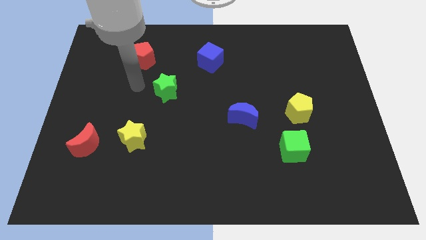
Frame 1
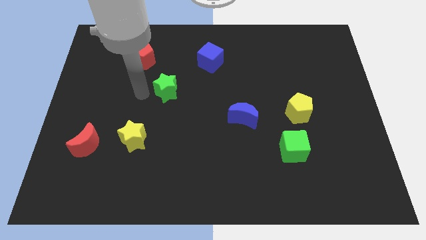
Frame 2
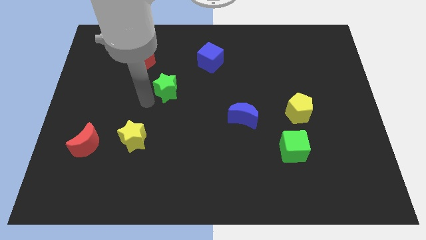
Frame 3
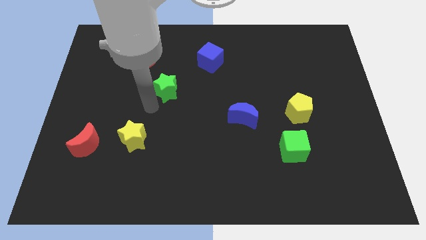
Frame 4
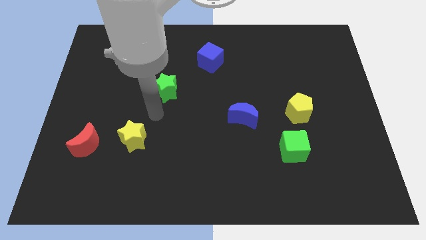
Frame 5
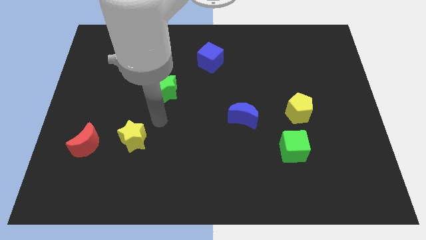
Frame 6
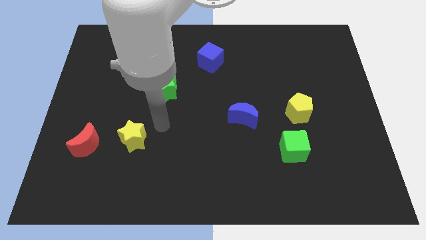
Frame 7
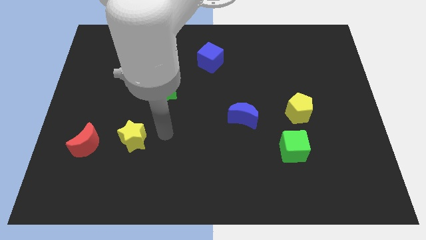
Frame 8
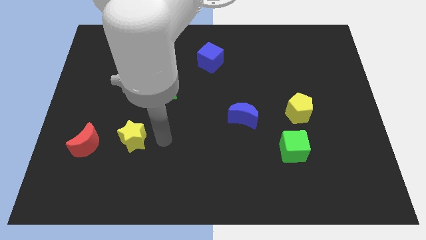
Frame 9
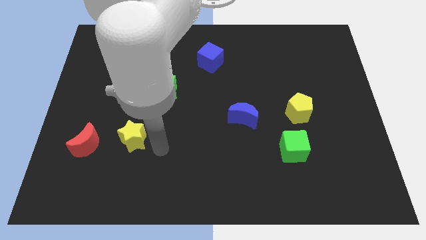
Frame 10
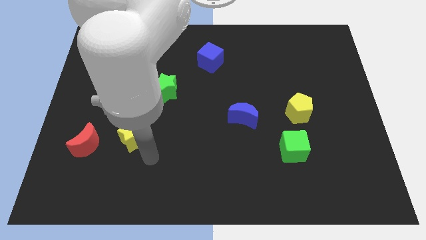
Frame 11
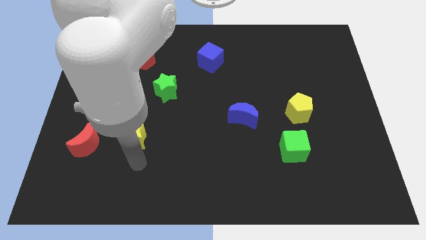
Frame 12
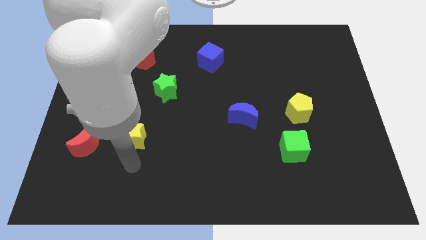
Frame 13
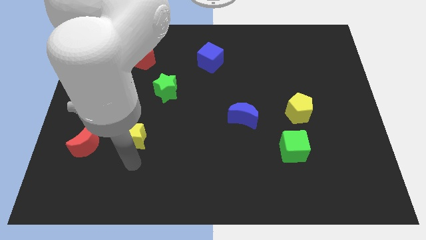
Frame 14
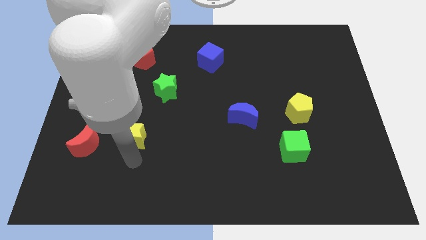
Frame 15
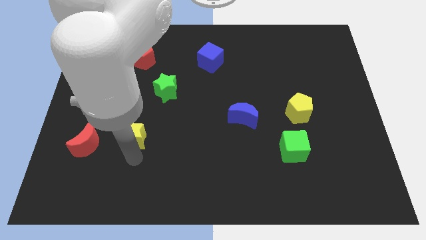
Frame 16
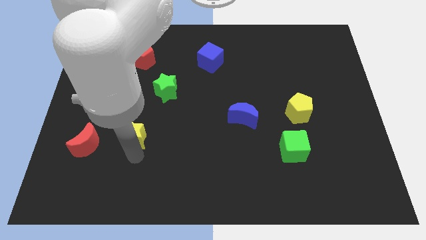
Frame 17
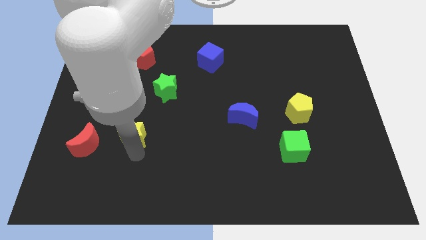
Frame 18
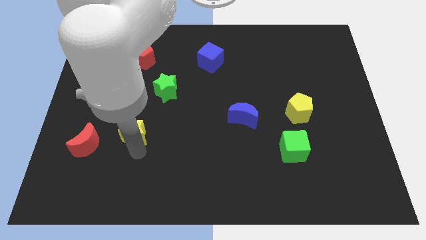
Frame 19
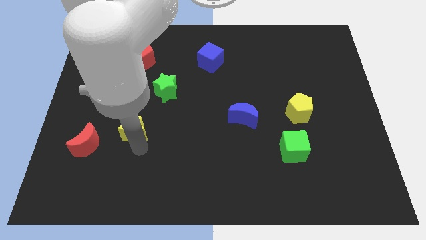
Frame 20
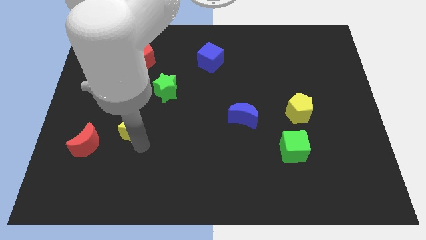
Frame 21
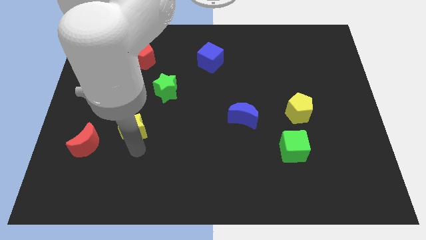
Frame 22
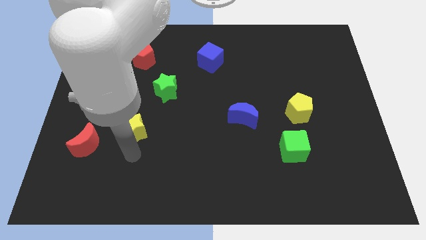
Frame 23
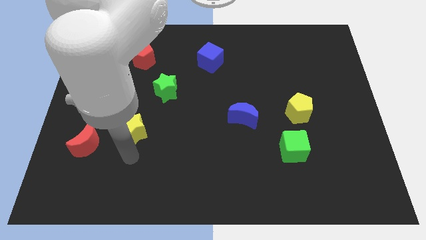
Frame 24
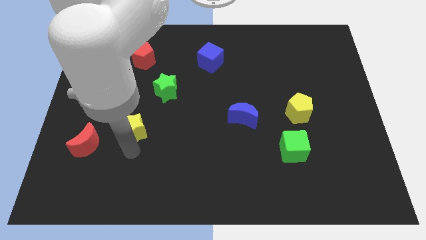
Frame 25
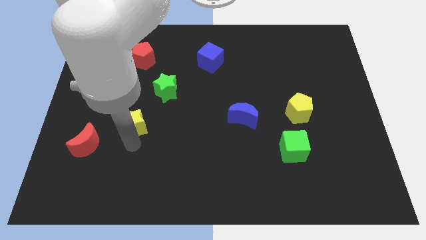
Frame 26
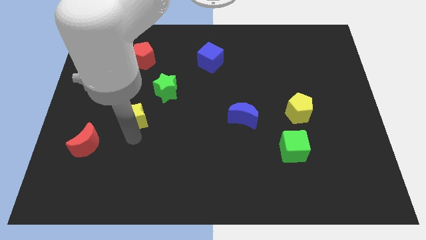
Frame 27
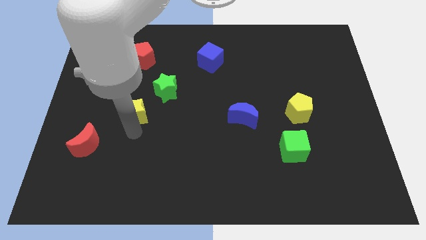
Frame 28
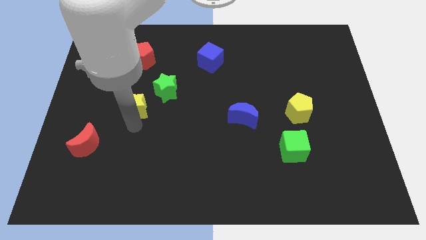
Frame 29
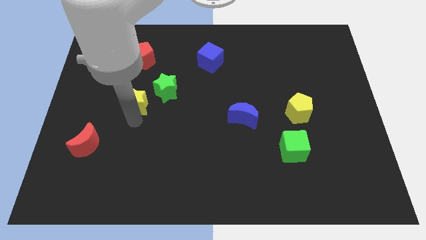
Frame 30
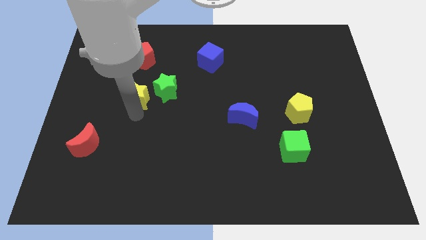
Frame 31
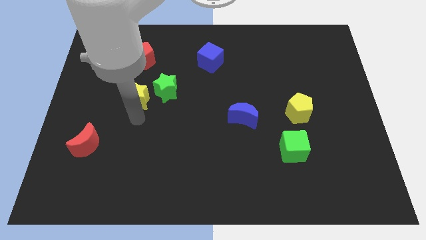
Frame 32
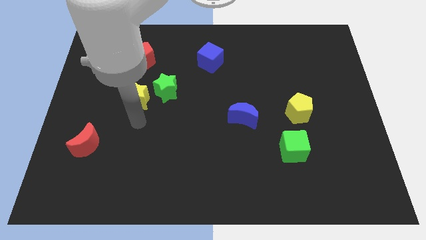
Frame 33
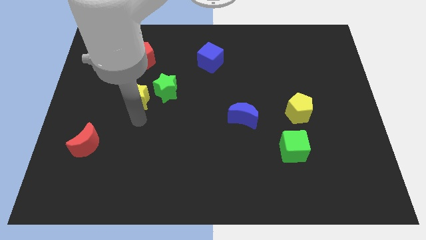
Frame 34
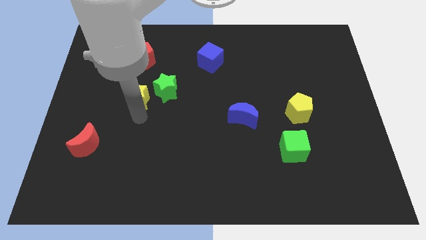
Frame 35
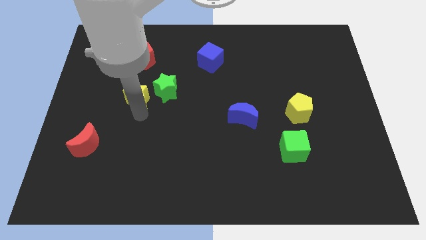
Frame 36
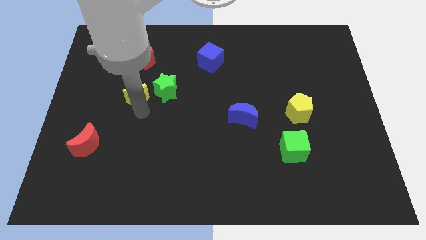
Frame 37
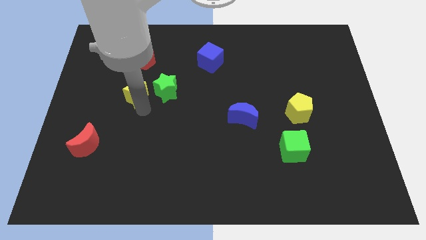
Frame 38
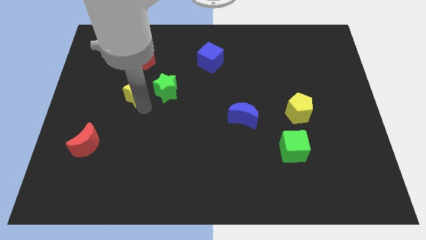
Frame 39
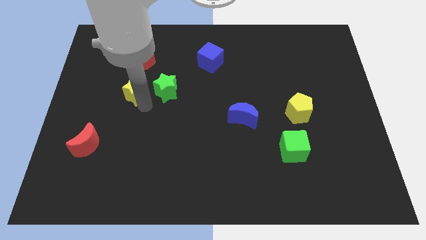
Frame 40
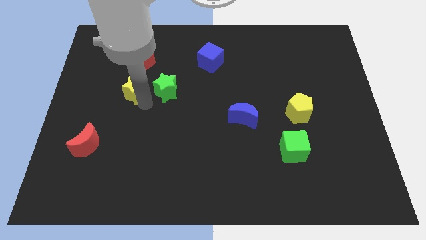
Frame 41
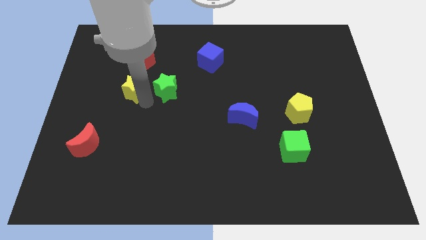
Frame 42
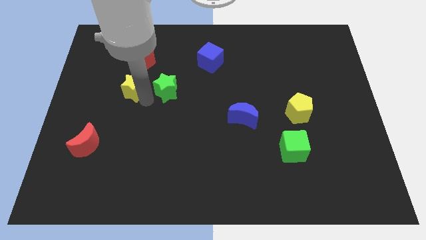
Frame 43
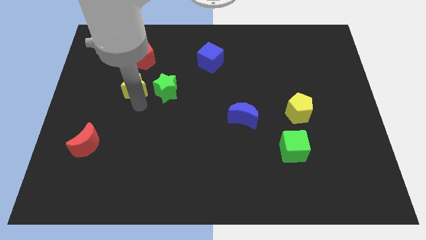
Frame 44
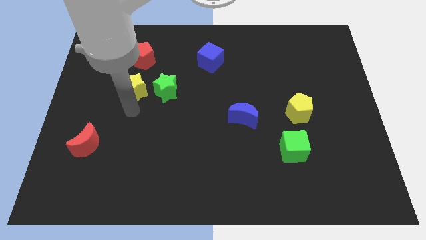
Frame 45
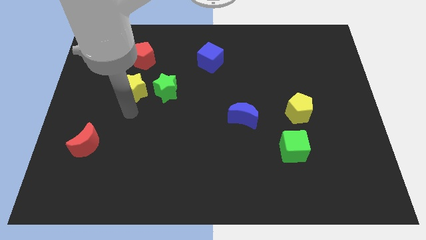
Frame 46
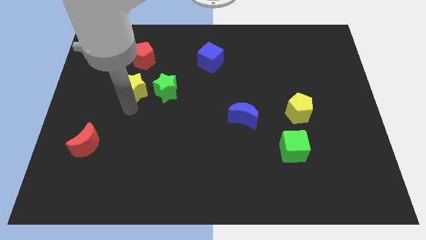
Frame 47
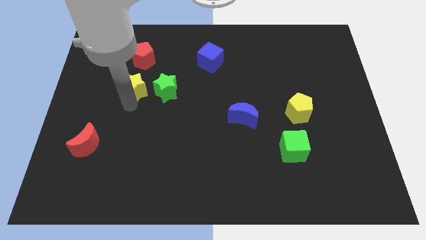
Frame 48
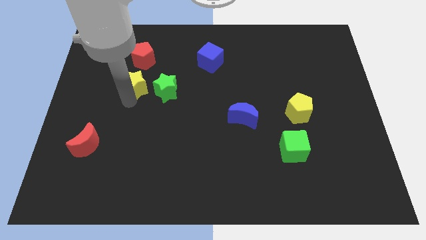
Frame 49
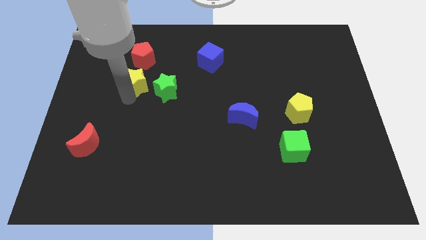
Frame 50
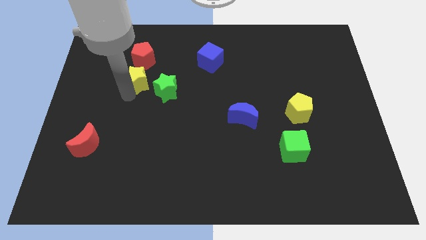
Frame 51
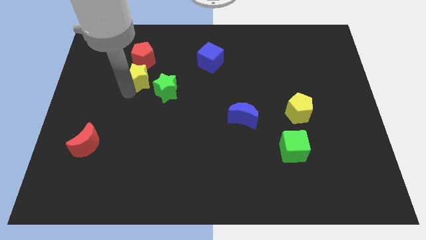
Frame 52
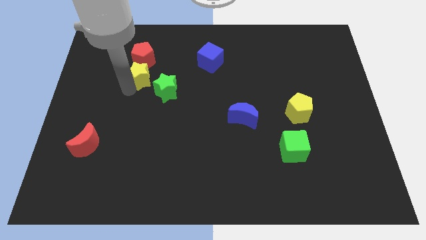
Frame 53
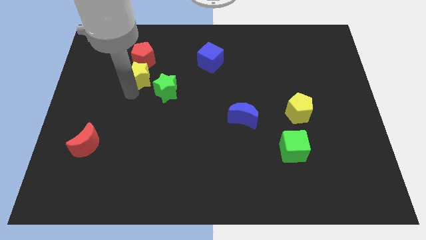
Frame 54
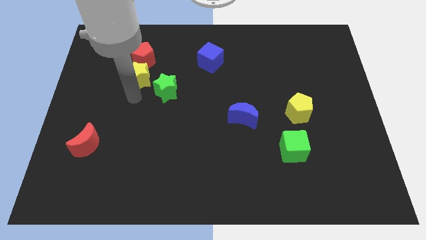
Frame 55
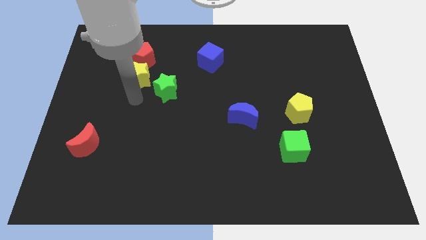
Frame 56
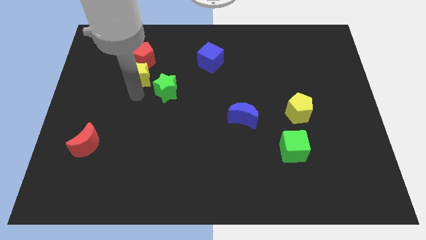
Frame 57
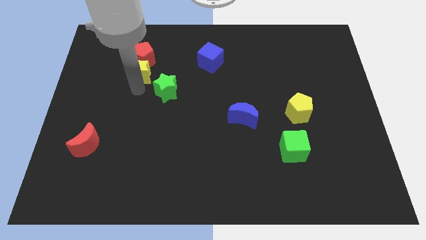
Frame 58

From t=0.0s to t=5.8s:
push the yellow star next to the red pentagon

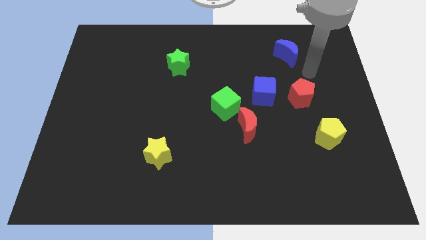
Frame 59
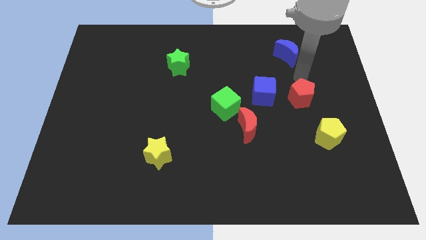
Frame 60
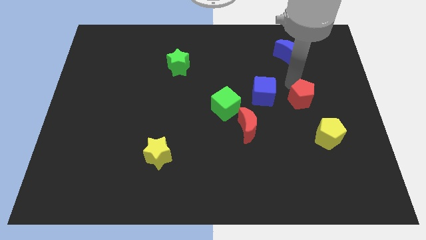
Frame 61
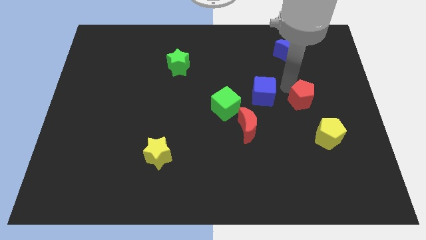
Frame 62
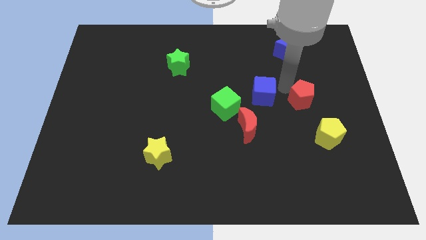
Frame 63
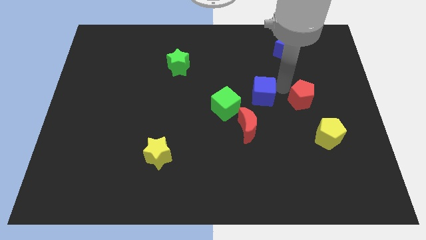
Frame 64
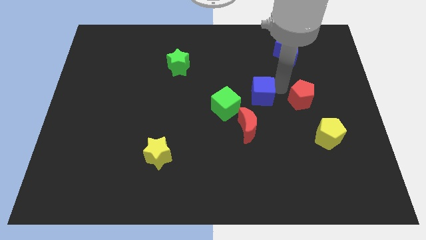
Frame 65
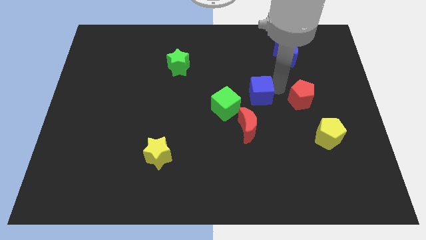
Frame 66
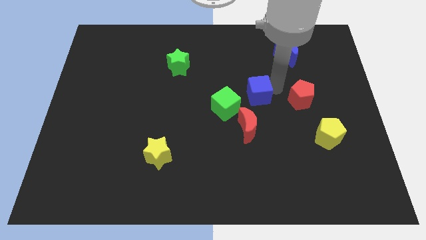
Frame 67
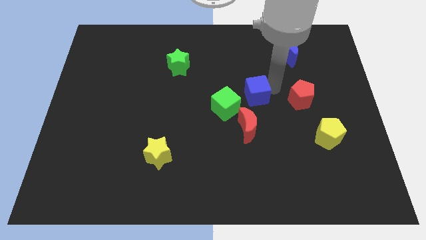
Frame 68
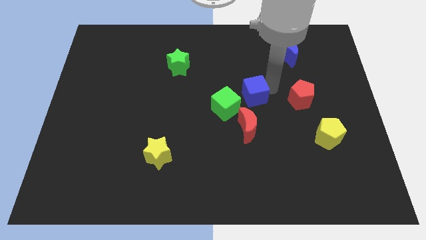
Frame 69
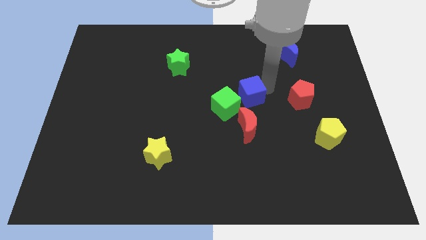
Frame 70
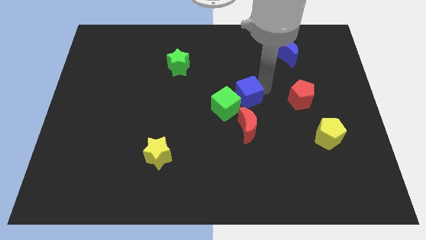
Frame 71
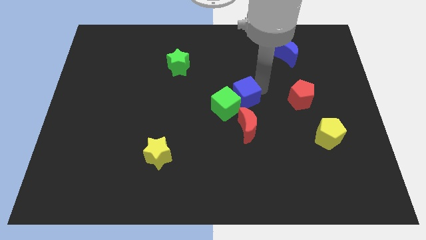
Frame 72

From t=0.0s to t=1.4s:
push the blue cube close to the green cube
